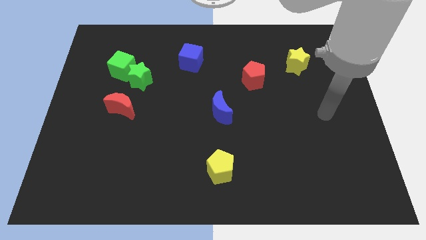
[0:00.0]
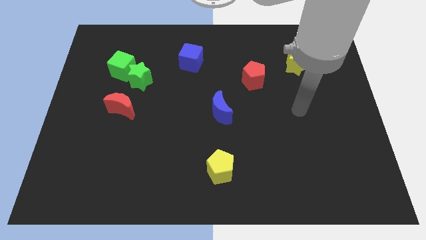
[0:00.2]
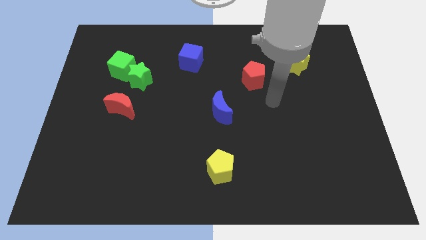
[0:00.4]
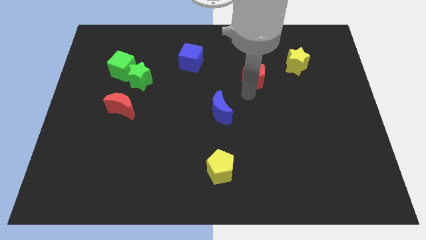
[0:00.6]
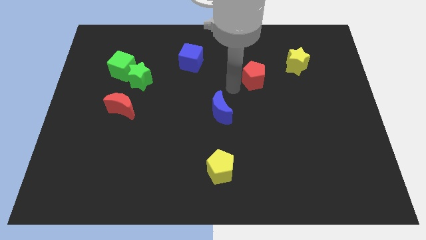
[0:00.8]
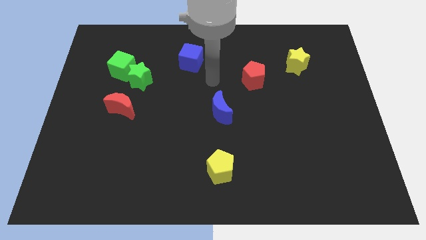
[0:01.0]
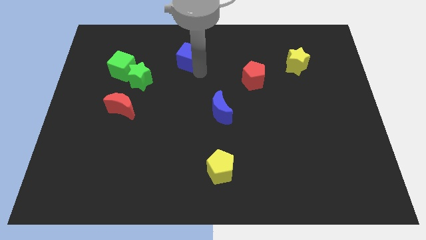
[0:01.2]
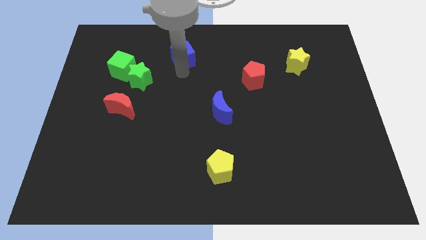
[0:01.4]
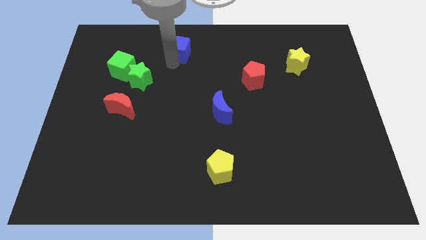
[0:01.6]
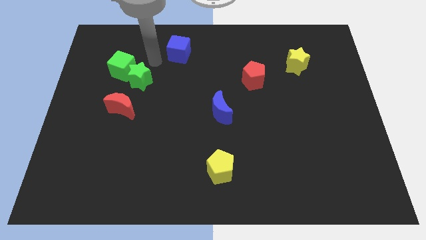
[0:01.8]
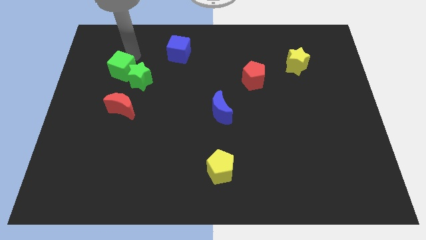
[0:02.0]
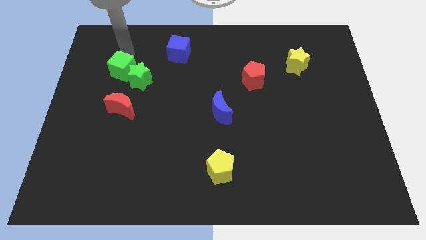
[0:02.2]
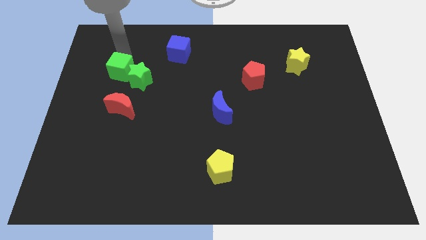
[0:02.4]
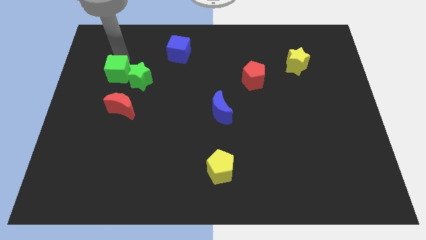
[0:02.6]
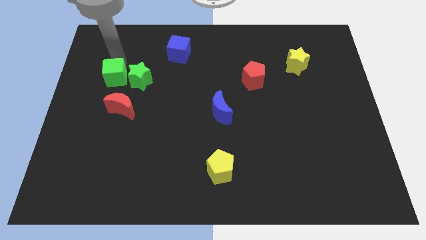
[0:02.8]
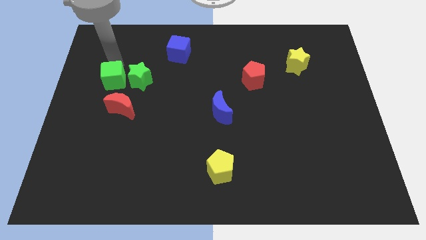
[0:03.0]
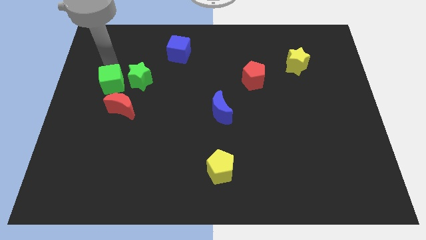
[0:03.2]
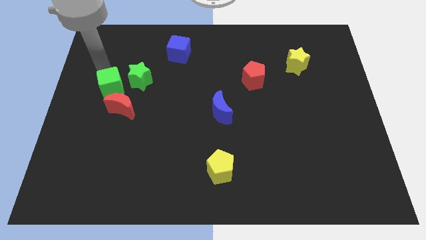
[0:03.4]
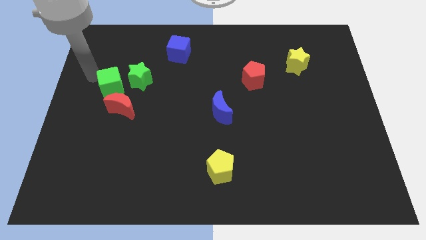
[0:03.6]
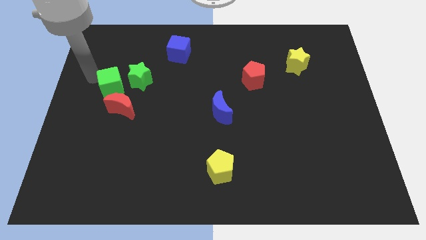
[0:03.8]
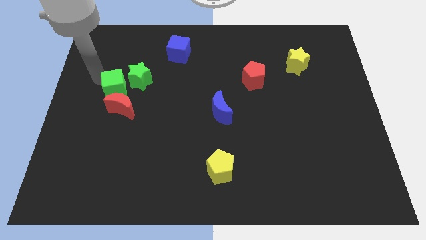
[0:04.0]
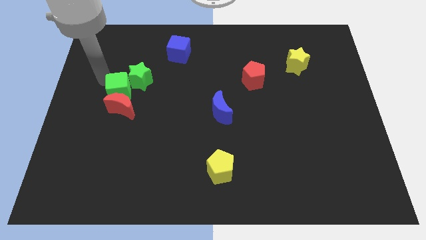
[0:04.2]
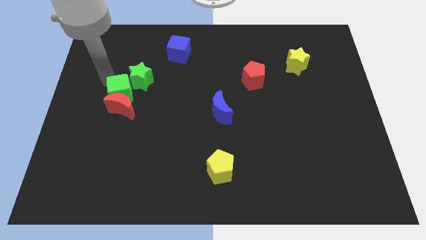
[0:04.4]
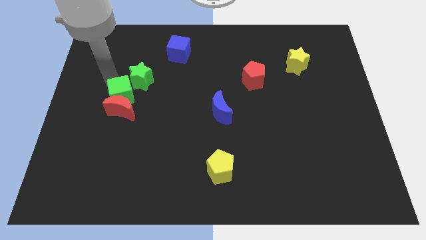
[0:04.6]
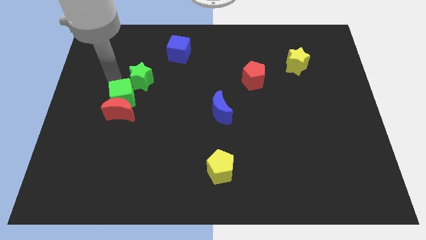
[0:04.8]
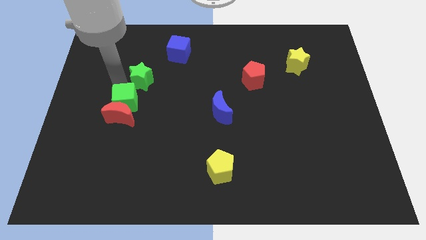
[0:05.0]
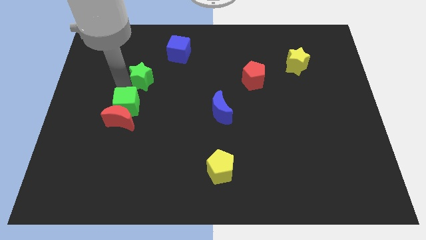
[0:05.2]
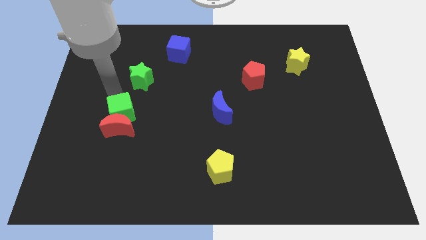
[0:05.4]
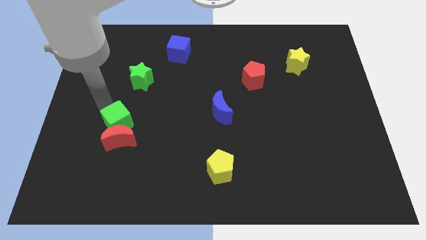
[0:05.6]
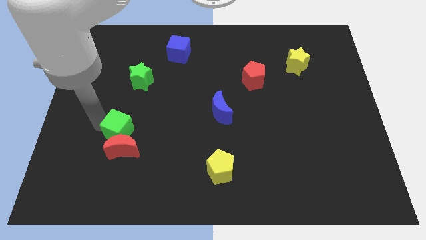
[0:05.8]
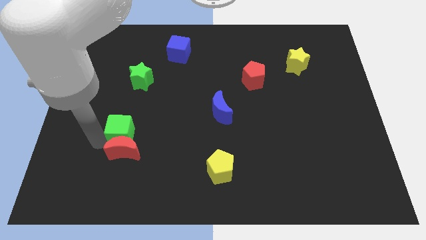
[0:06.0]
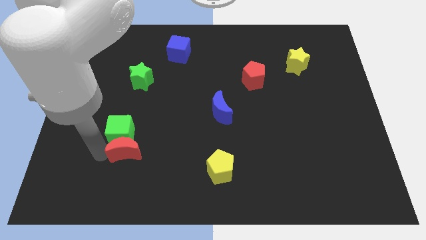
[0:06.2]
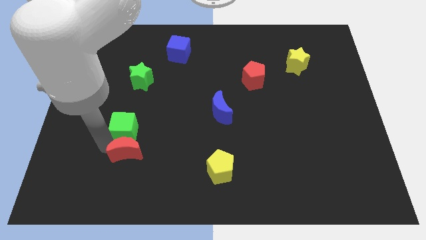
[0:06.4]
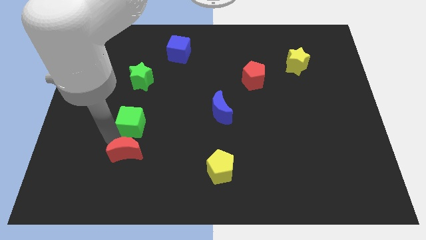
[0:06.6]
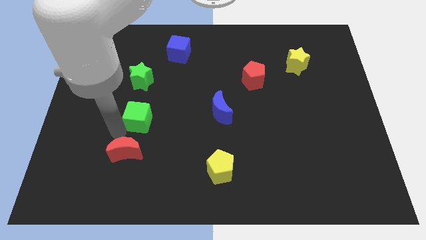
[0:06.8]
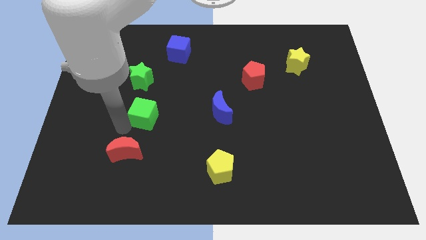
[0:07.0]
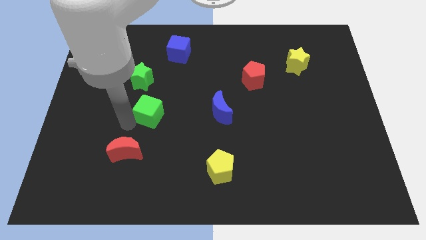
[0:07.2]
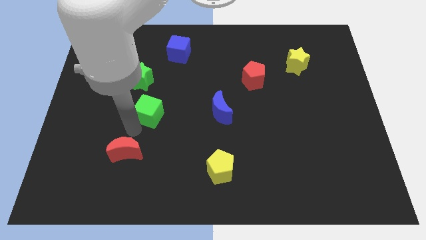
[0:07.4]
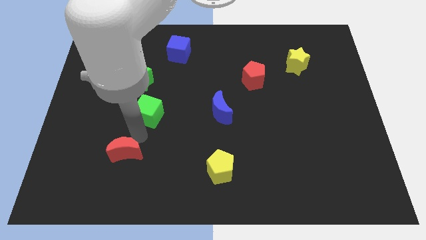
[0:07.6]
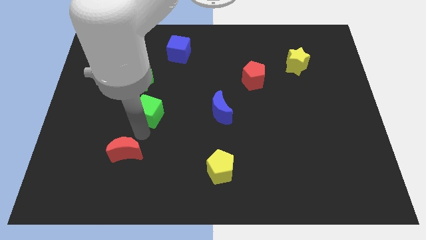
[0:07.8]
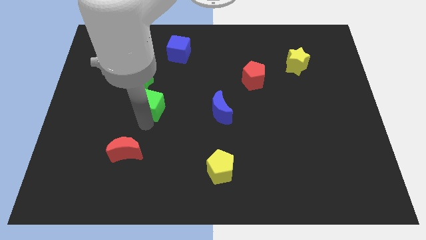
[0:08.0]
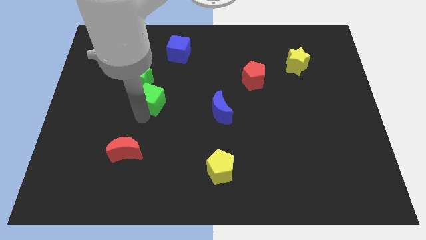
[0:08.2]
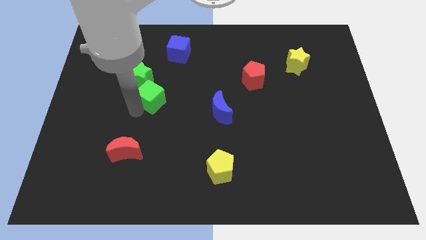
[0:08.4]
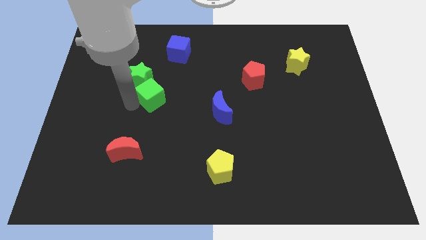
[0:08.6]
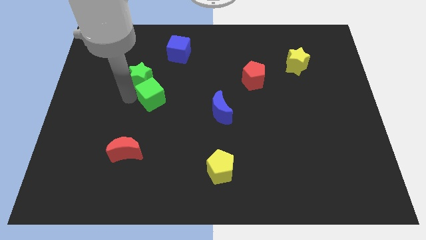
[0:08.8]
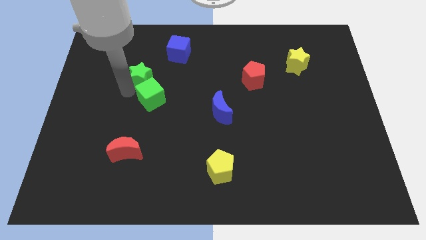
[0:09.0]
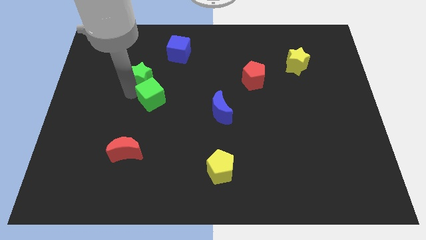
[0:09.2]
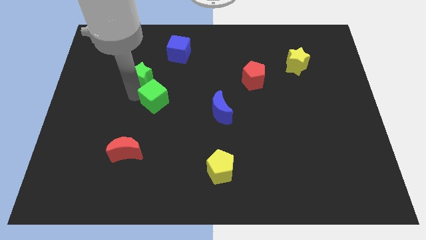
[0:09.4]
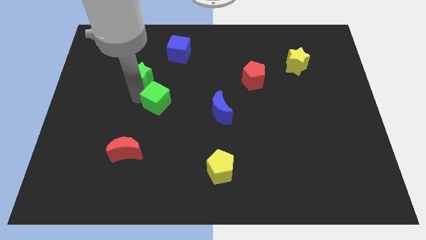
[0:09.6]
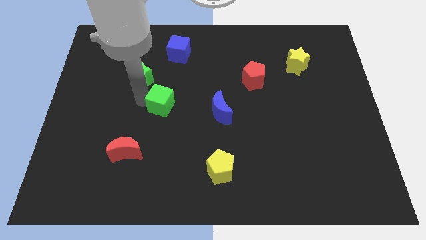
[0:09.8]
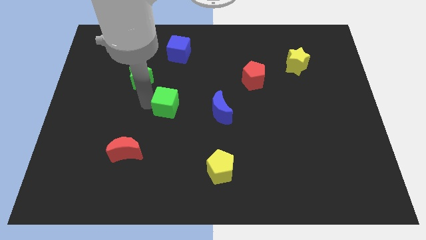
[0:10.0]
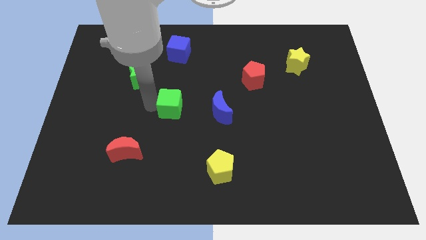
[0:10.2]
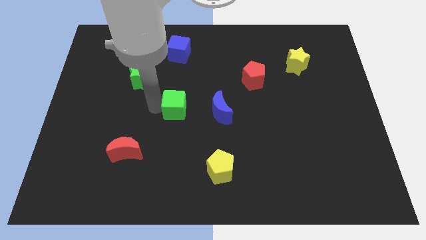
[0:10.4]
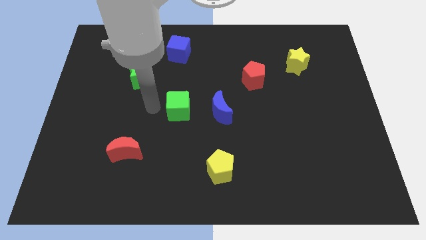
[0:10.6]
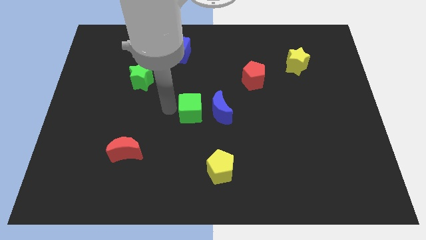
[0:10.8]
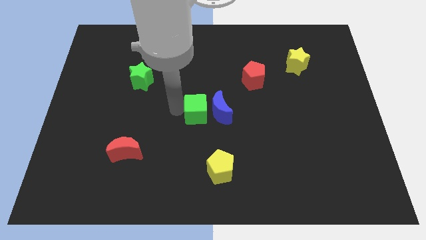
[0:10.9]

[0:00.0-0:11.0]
slide the green cube towards the blue moon
